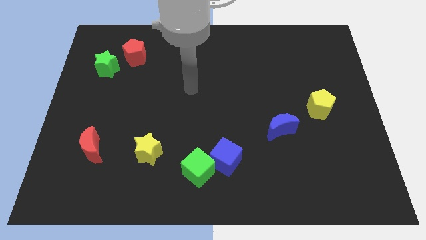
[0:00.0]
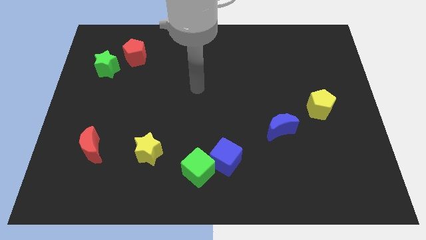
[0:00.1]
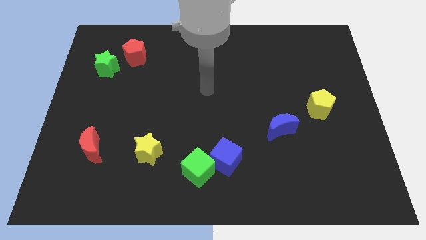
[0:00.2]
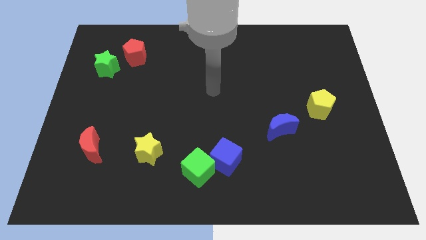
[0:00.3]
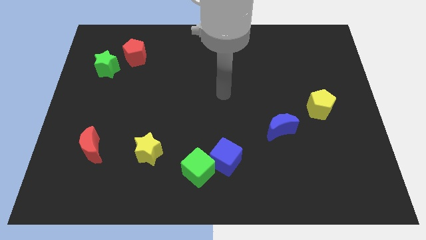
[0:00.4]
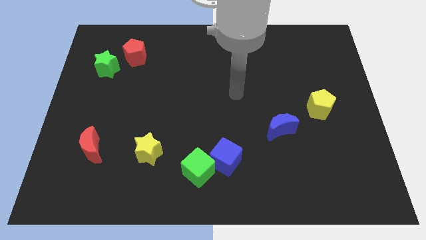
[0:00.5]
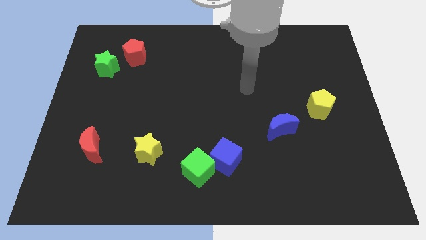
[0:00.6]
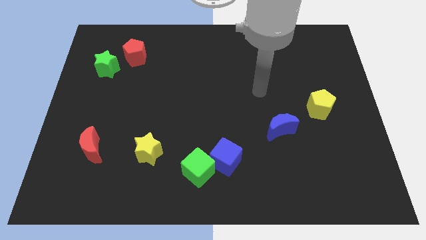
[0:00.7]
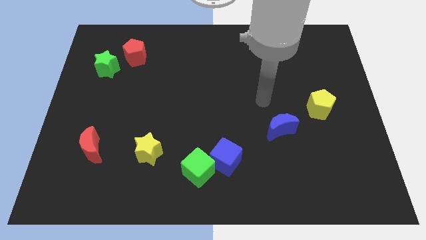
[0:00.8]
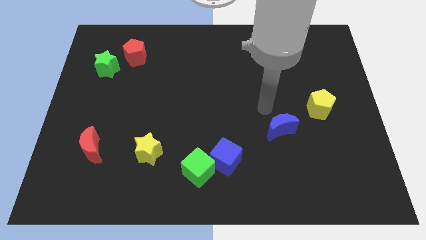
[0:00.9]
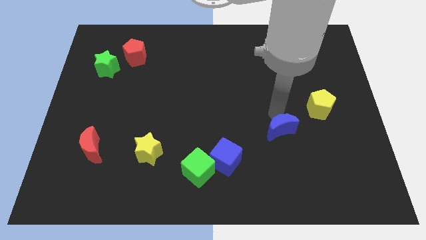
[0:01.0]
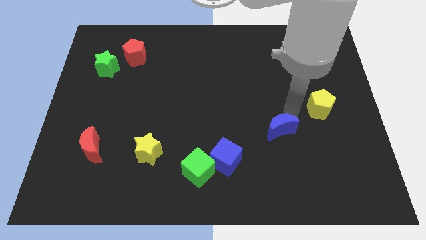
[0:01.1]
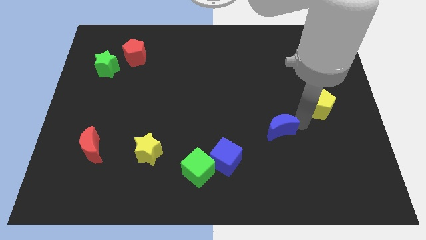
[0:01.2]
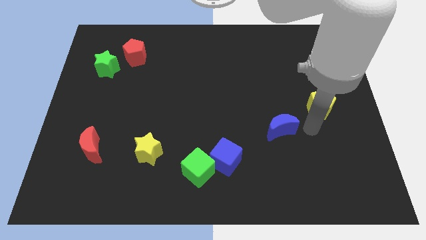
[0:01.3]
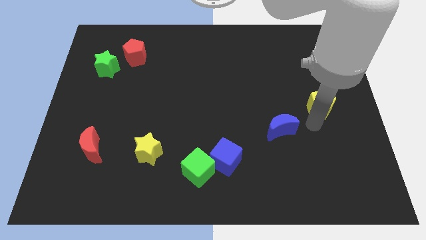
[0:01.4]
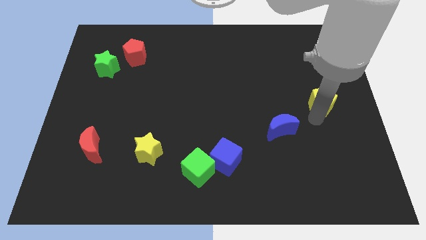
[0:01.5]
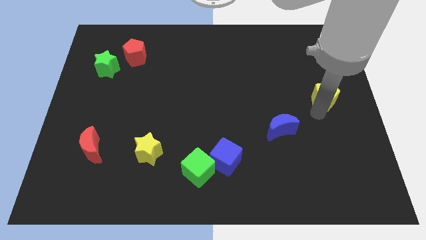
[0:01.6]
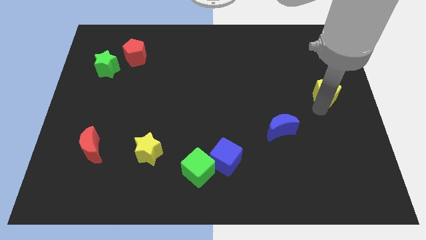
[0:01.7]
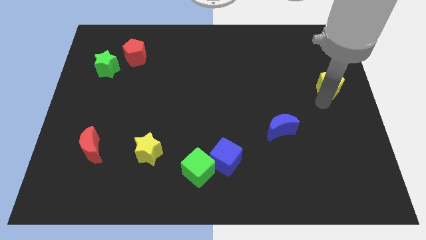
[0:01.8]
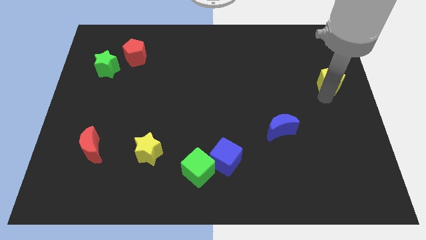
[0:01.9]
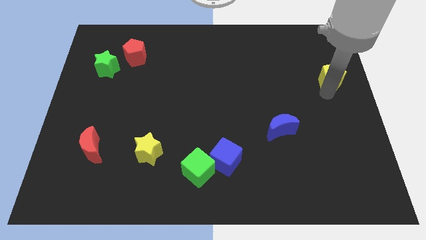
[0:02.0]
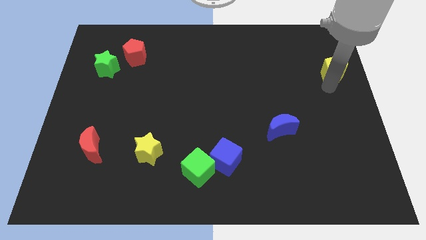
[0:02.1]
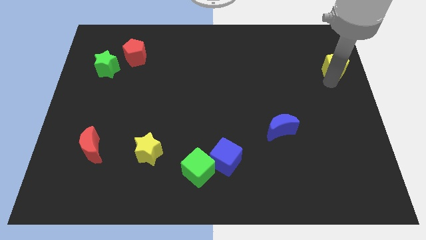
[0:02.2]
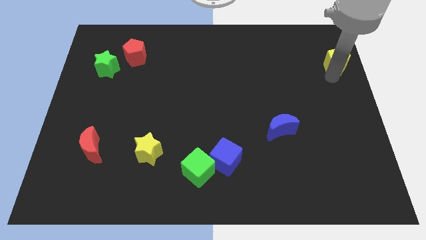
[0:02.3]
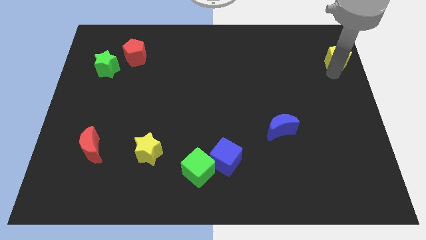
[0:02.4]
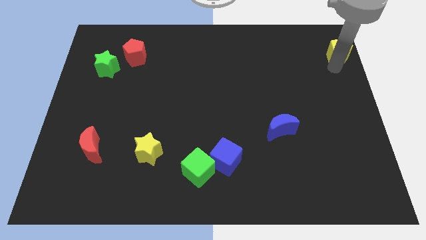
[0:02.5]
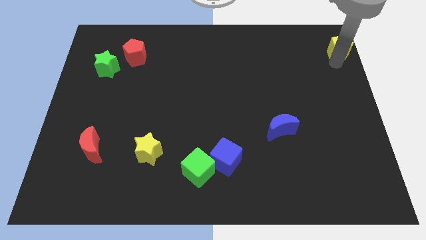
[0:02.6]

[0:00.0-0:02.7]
move the yellow pentagon to the top right of the board

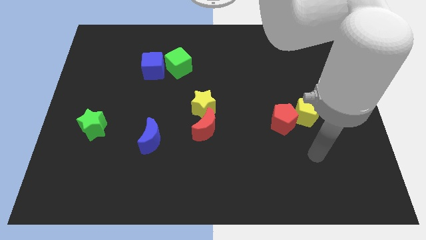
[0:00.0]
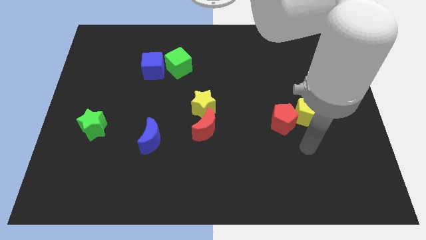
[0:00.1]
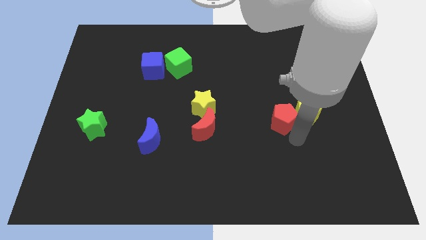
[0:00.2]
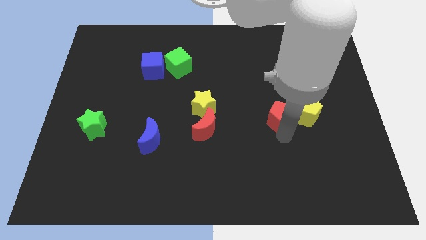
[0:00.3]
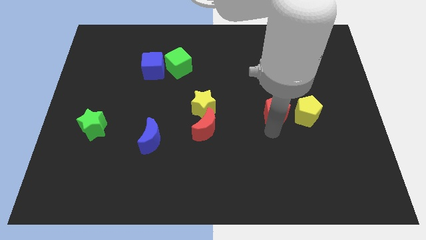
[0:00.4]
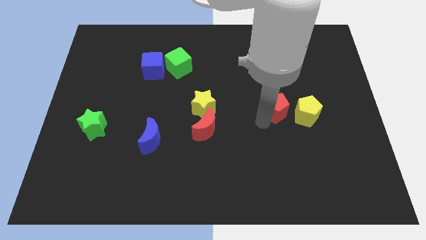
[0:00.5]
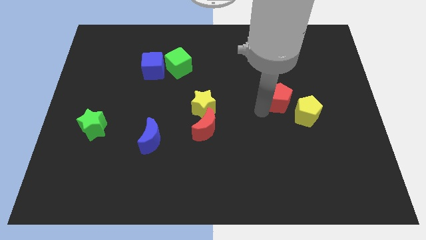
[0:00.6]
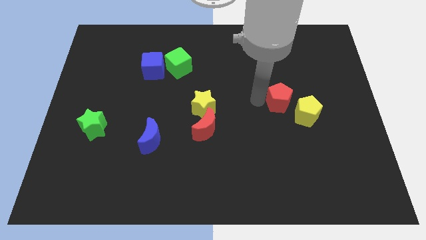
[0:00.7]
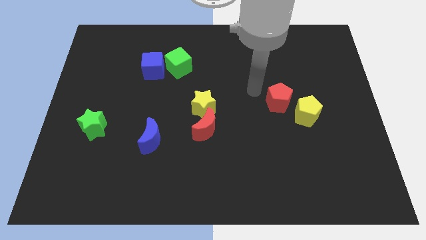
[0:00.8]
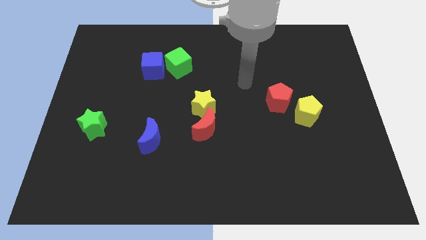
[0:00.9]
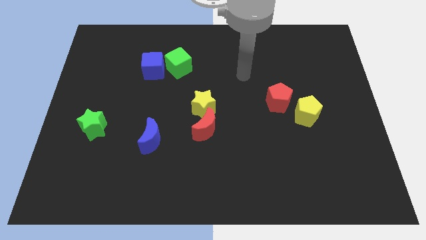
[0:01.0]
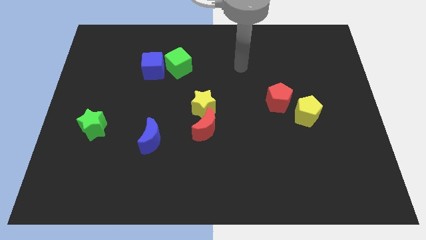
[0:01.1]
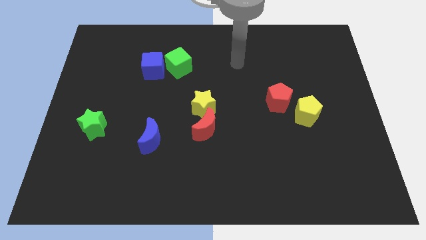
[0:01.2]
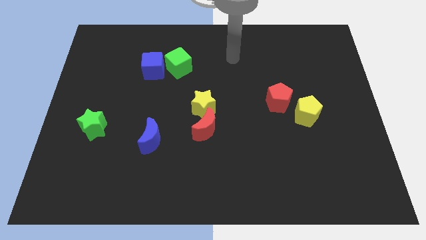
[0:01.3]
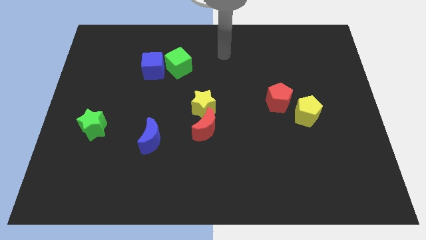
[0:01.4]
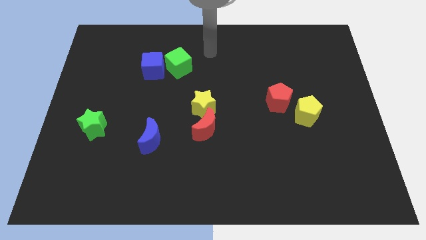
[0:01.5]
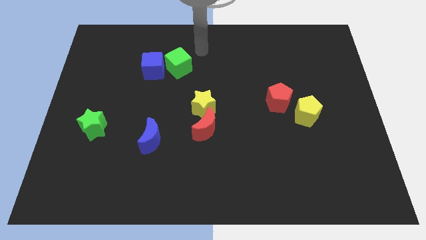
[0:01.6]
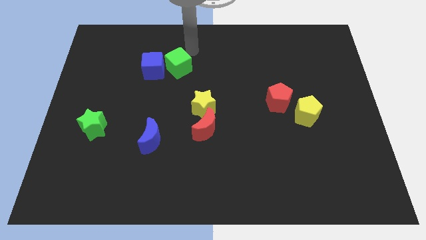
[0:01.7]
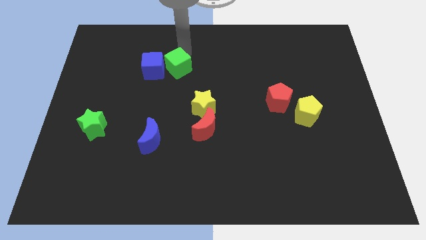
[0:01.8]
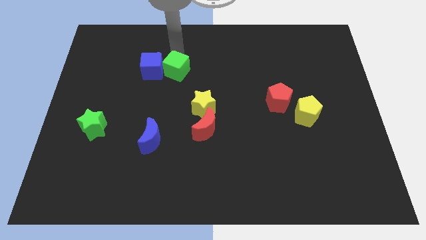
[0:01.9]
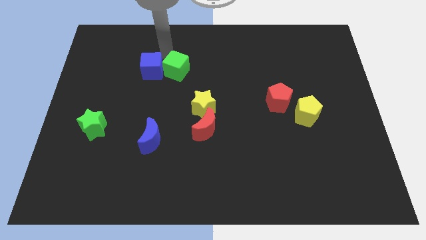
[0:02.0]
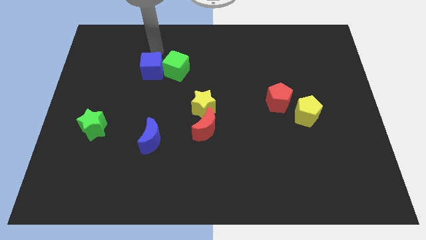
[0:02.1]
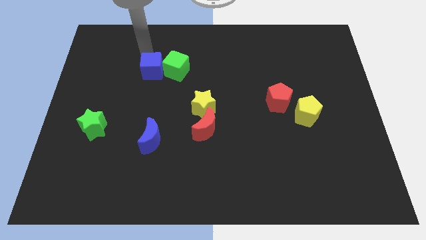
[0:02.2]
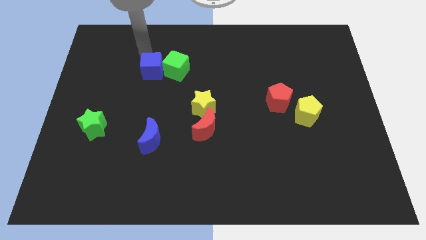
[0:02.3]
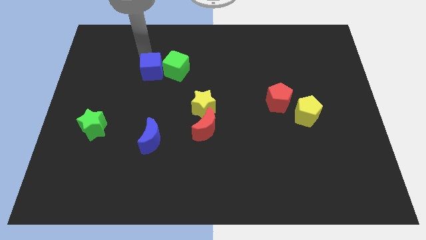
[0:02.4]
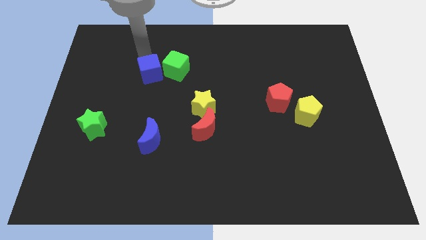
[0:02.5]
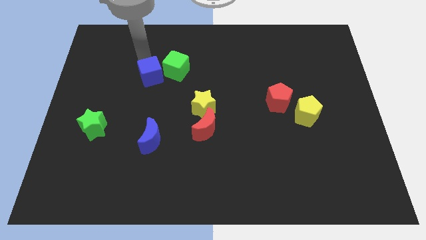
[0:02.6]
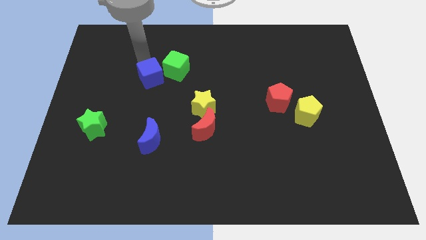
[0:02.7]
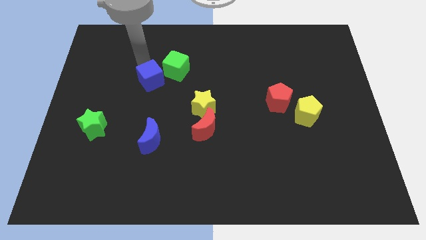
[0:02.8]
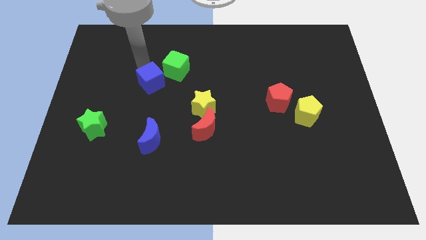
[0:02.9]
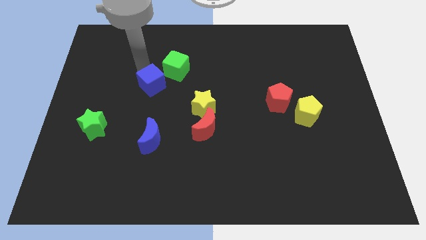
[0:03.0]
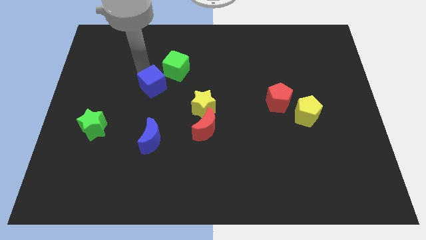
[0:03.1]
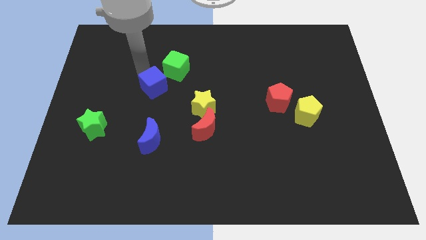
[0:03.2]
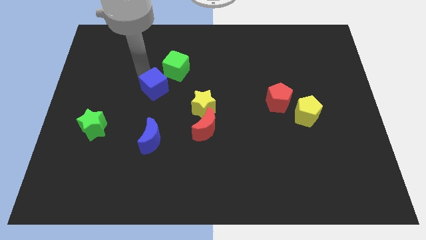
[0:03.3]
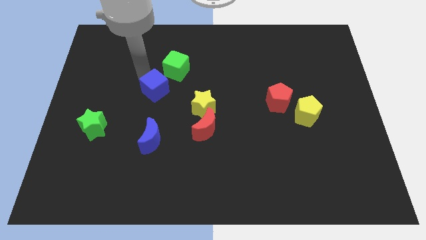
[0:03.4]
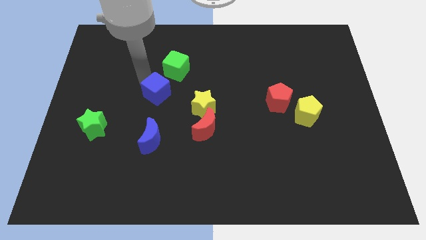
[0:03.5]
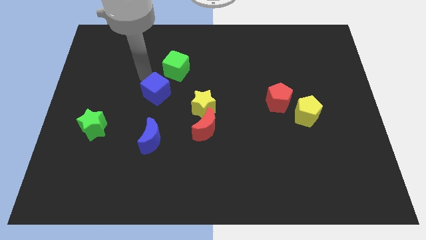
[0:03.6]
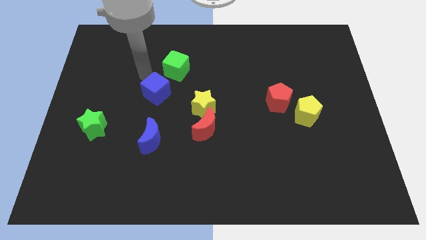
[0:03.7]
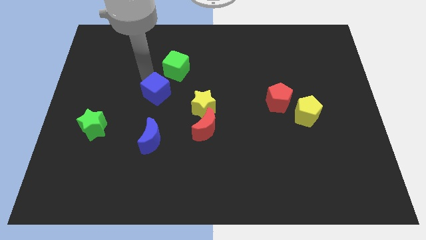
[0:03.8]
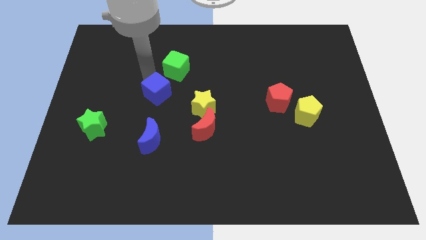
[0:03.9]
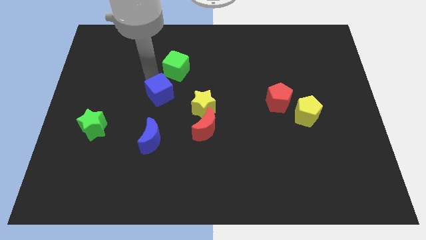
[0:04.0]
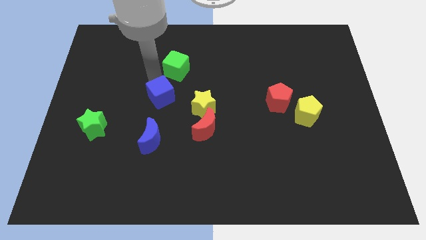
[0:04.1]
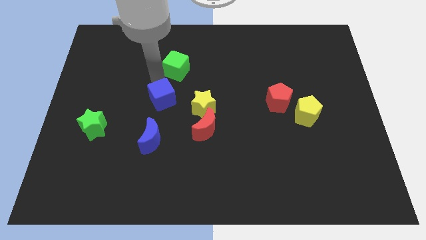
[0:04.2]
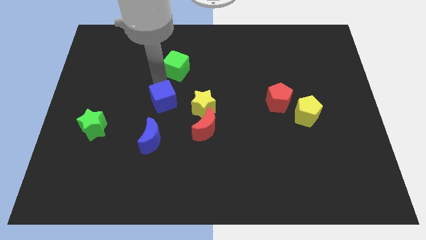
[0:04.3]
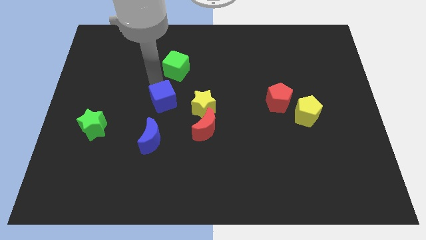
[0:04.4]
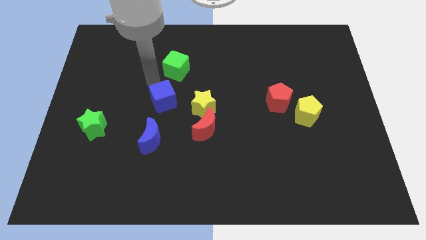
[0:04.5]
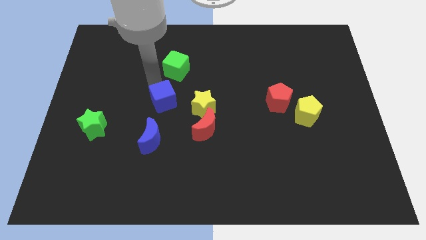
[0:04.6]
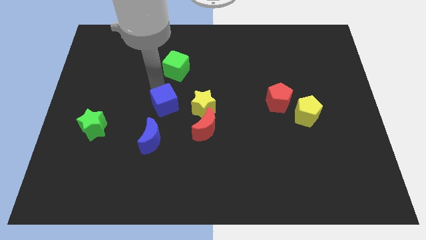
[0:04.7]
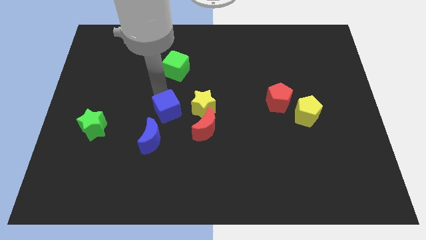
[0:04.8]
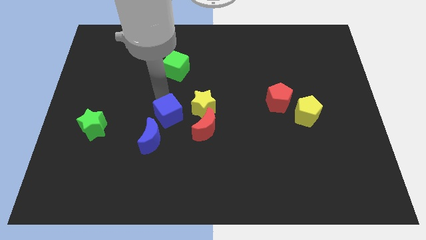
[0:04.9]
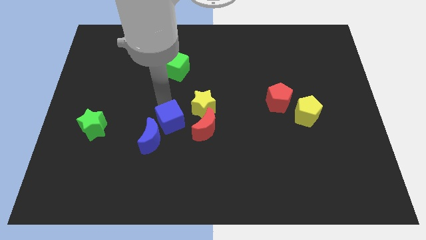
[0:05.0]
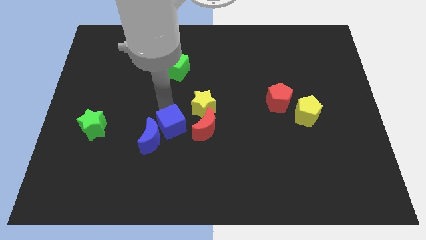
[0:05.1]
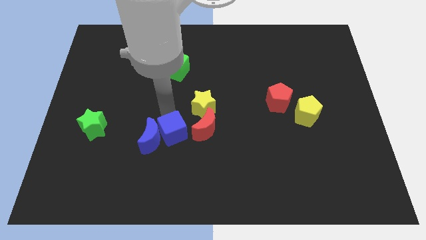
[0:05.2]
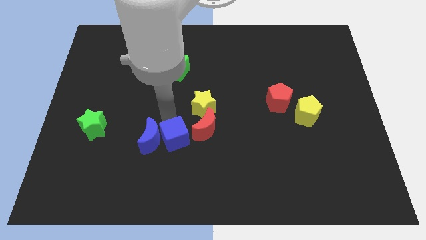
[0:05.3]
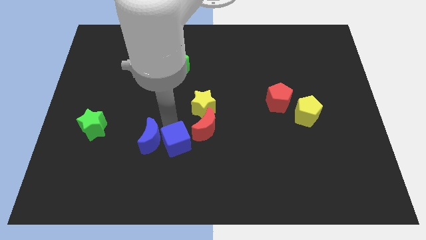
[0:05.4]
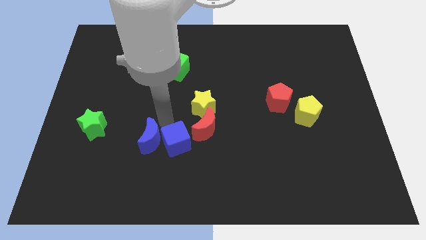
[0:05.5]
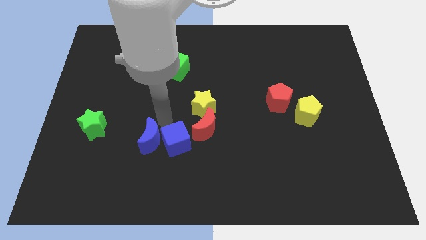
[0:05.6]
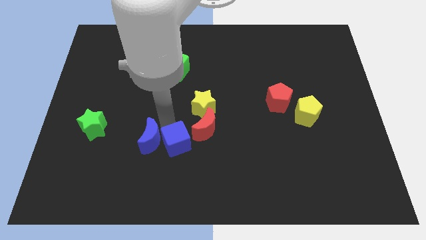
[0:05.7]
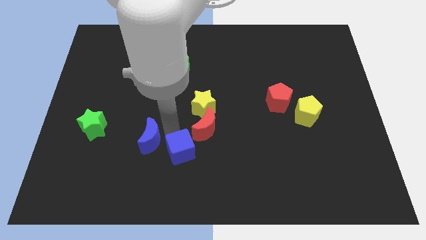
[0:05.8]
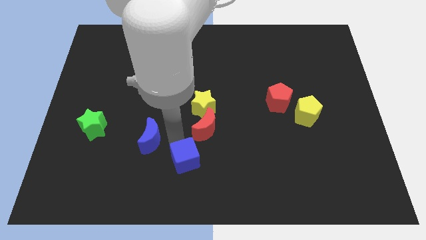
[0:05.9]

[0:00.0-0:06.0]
put the blue cube to the bottom
